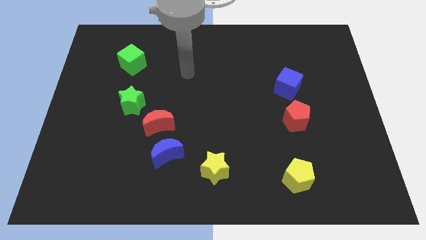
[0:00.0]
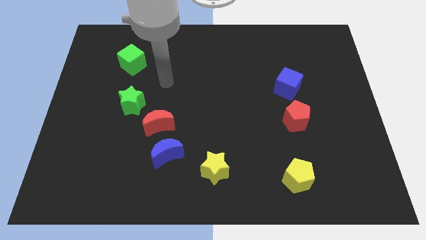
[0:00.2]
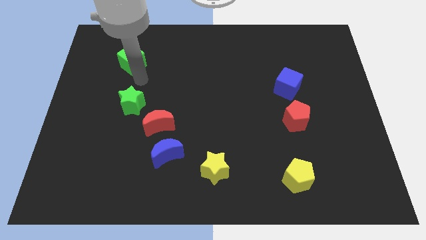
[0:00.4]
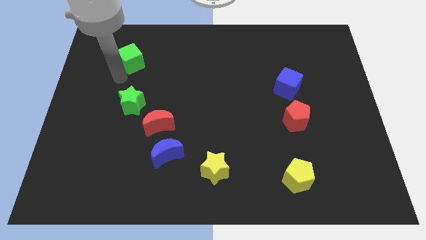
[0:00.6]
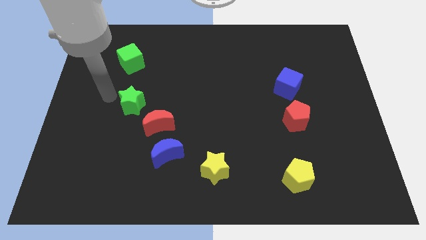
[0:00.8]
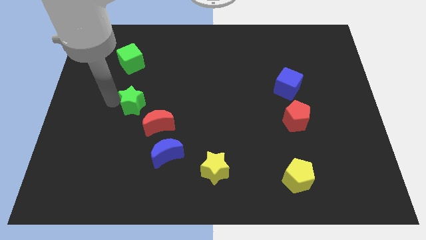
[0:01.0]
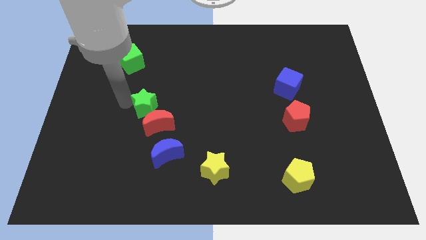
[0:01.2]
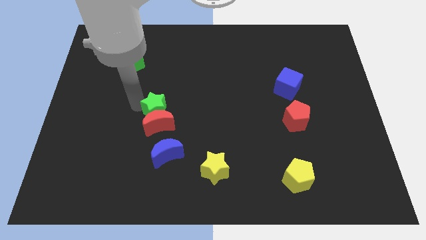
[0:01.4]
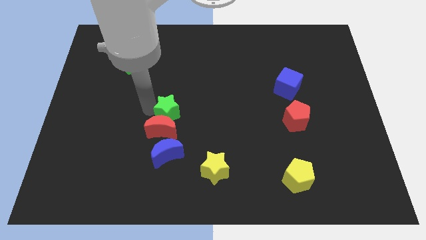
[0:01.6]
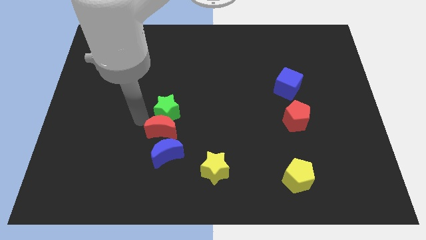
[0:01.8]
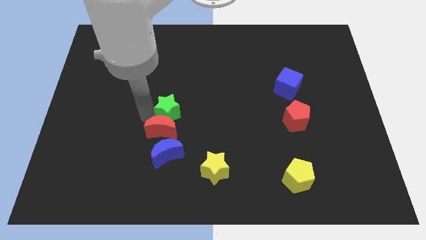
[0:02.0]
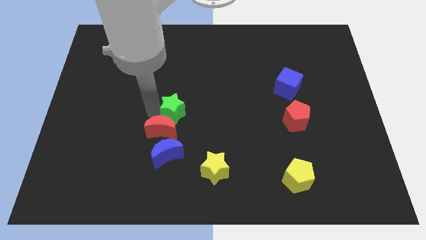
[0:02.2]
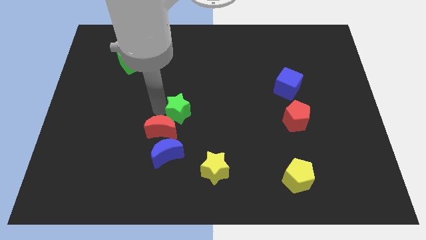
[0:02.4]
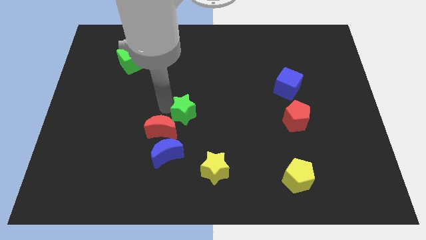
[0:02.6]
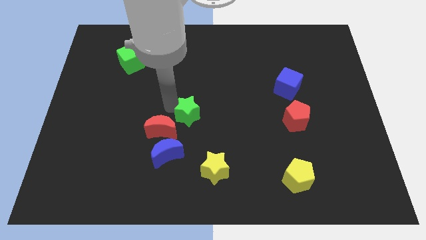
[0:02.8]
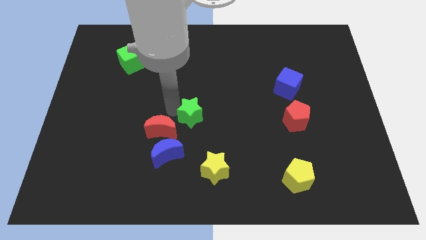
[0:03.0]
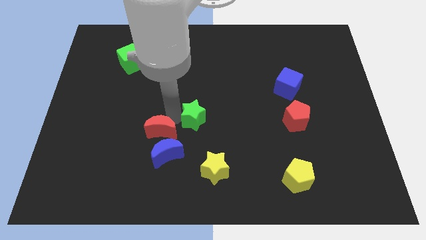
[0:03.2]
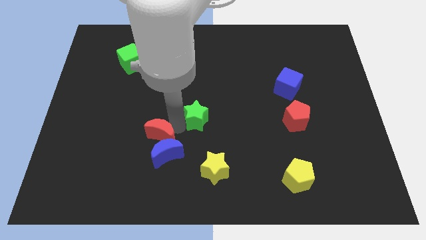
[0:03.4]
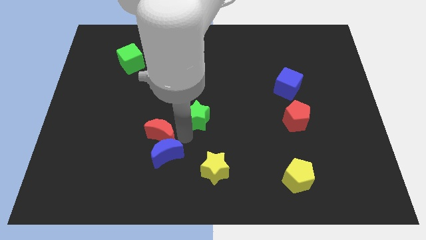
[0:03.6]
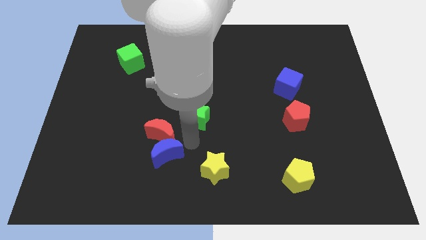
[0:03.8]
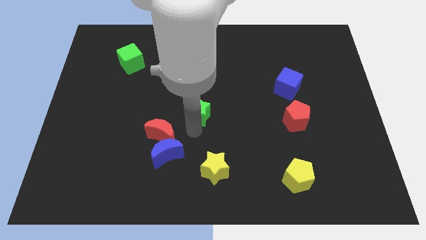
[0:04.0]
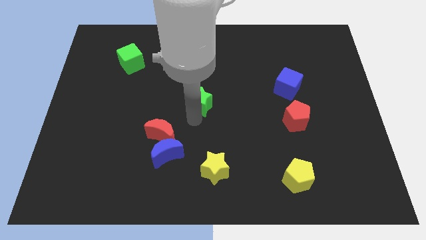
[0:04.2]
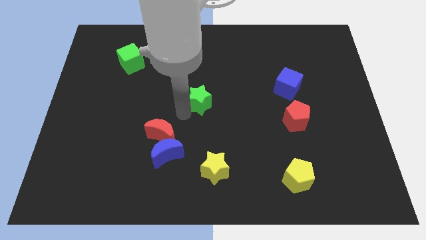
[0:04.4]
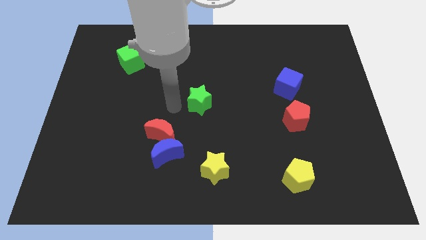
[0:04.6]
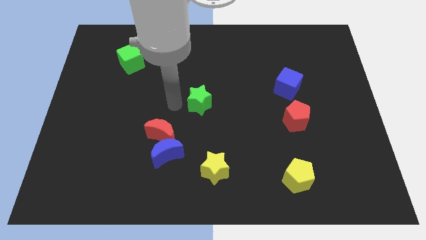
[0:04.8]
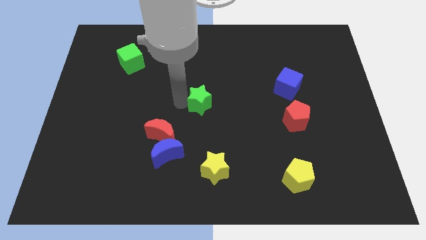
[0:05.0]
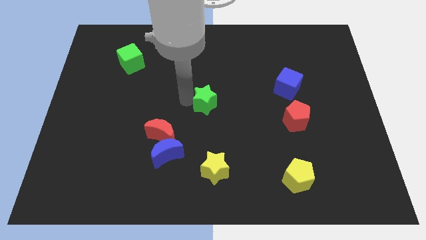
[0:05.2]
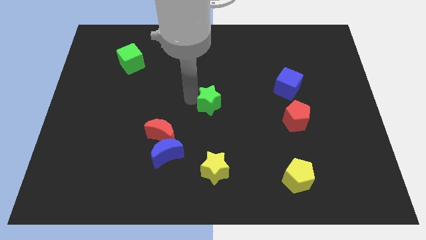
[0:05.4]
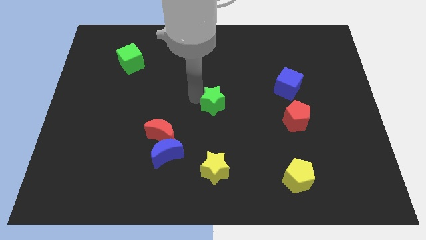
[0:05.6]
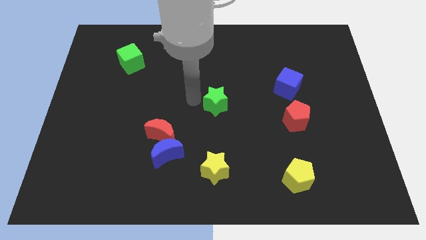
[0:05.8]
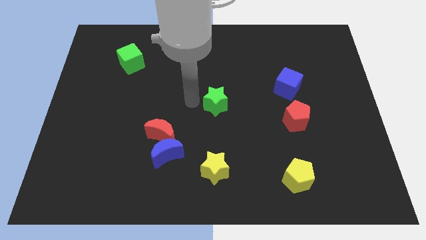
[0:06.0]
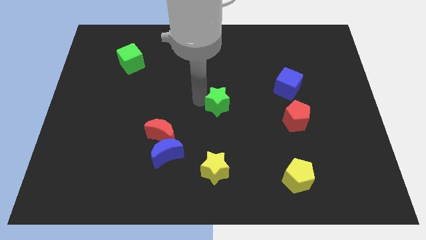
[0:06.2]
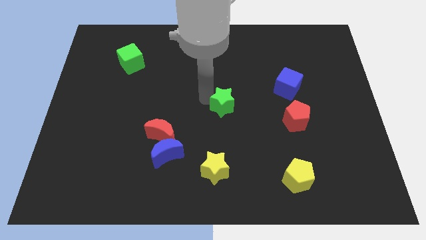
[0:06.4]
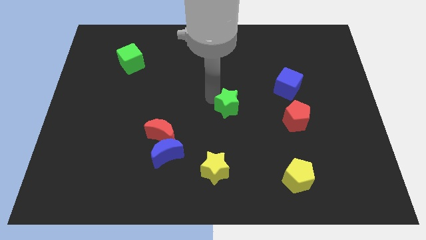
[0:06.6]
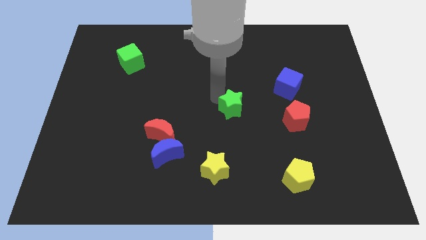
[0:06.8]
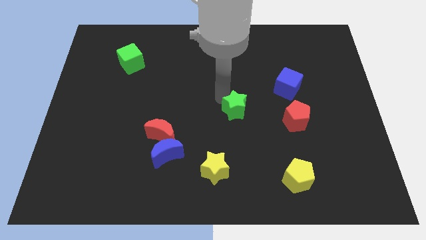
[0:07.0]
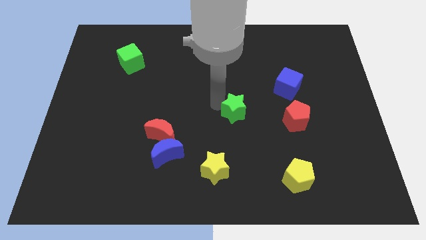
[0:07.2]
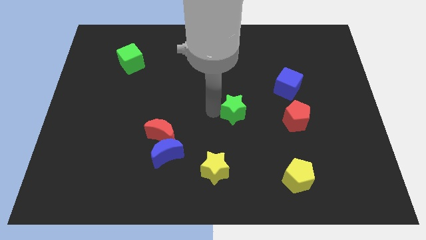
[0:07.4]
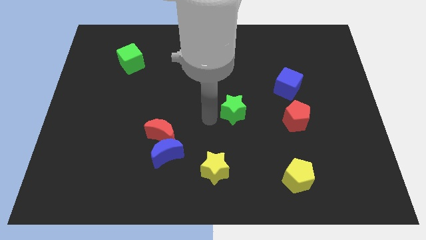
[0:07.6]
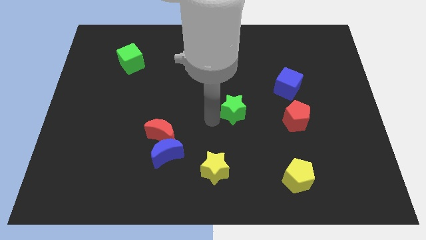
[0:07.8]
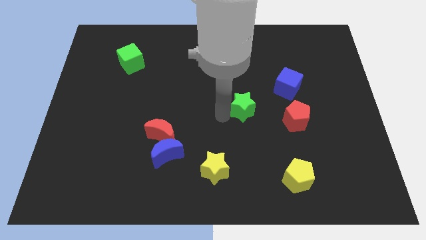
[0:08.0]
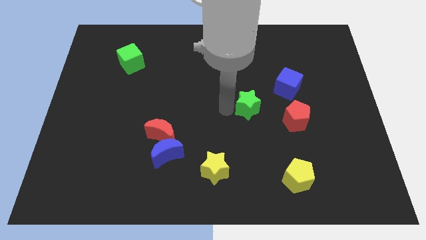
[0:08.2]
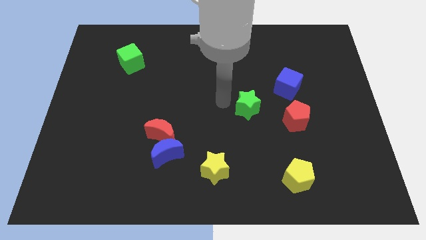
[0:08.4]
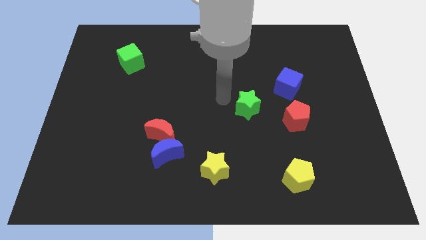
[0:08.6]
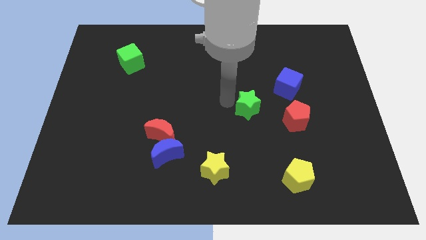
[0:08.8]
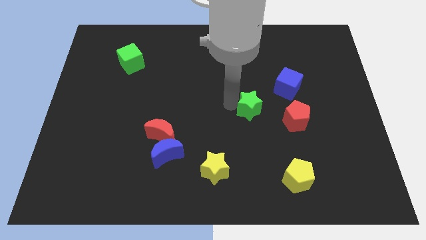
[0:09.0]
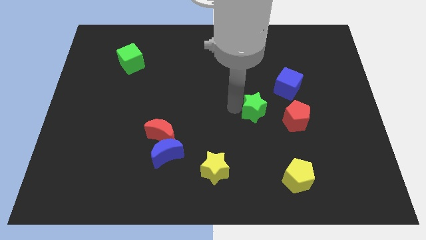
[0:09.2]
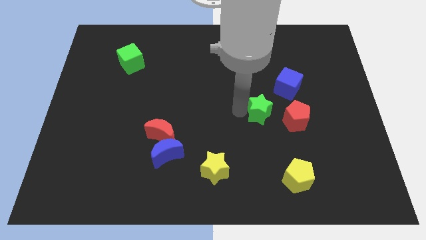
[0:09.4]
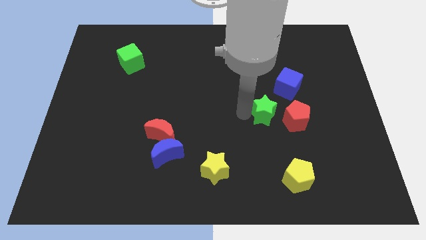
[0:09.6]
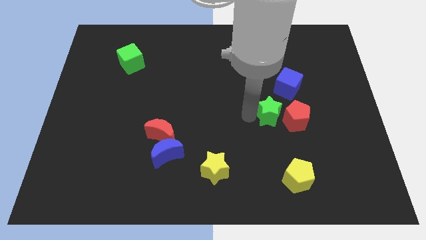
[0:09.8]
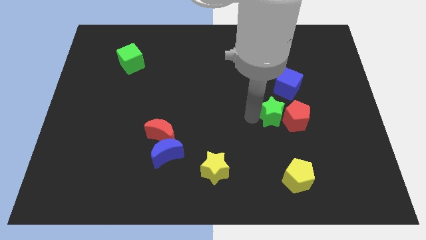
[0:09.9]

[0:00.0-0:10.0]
move the green star towards the red pentagon

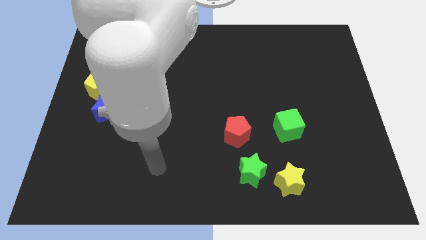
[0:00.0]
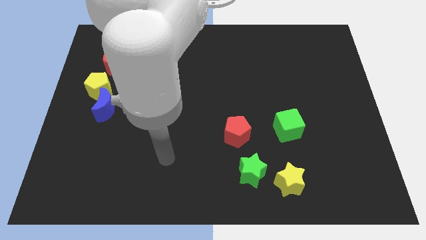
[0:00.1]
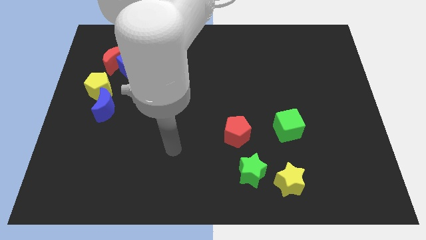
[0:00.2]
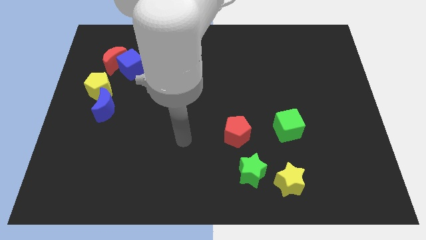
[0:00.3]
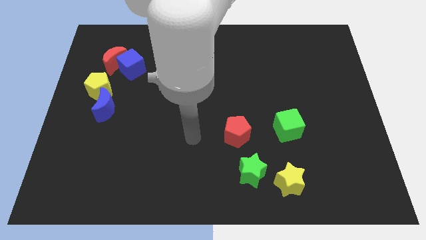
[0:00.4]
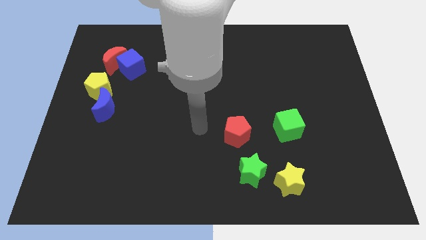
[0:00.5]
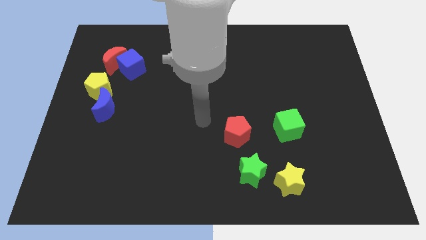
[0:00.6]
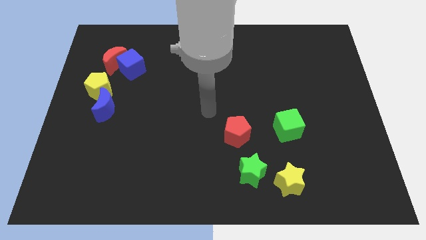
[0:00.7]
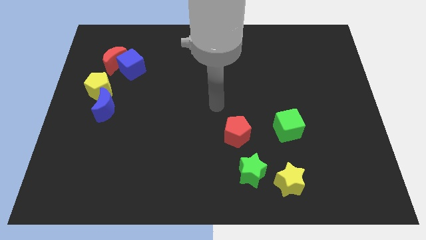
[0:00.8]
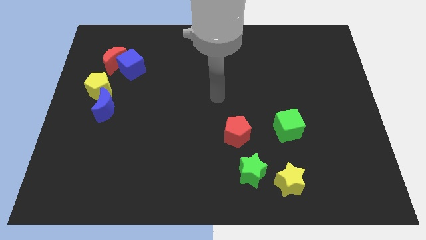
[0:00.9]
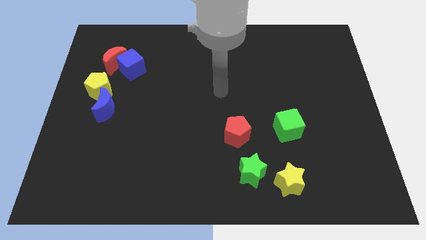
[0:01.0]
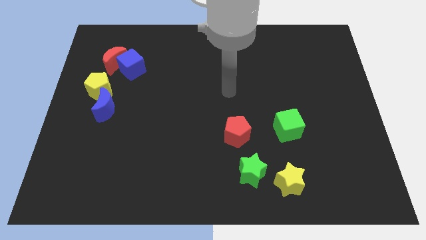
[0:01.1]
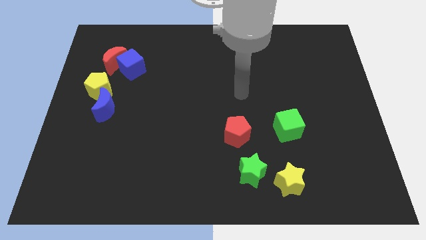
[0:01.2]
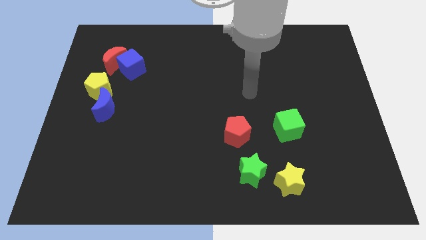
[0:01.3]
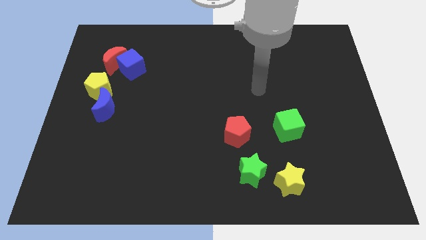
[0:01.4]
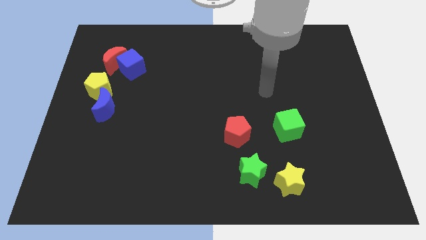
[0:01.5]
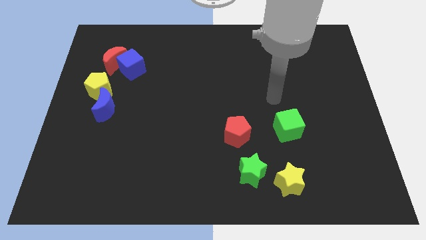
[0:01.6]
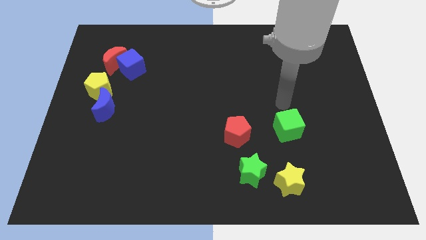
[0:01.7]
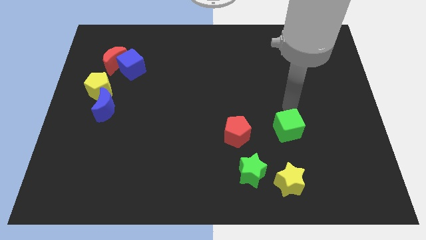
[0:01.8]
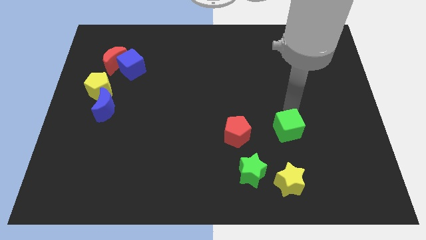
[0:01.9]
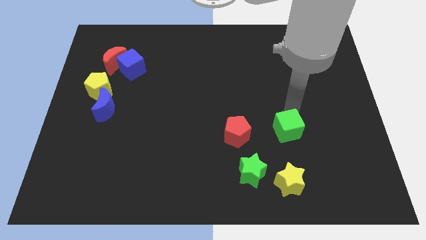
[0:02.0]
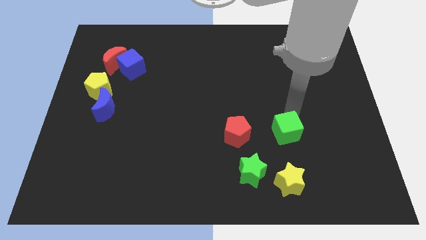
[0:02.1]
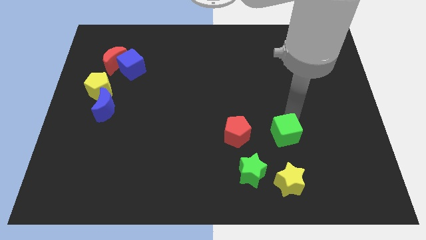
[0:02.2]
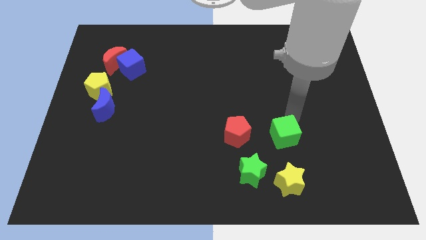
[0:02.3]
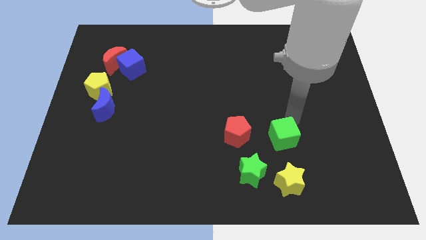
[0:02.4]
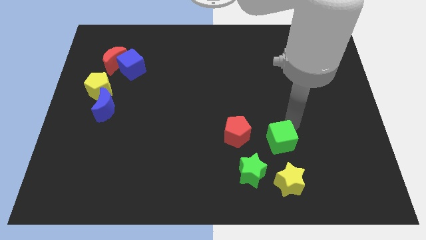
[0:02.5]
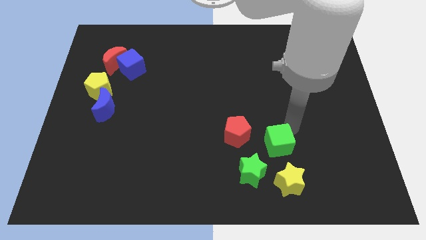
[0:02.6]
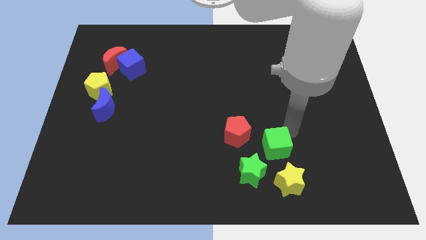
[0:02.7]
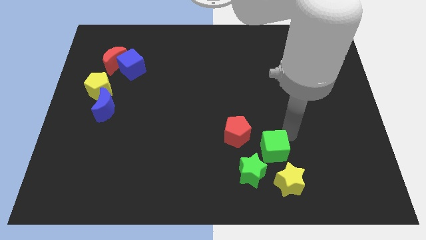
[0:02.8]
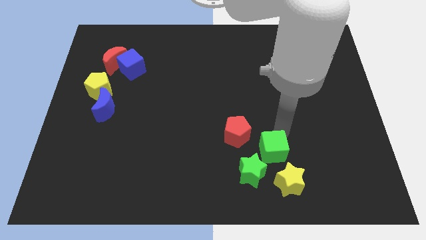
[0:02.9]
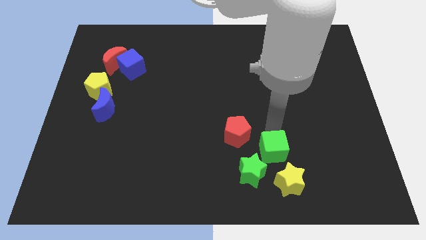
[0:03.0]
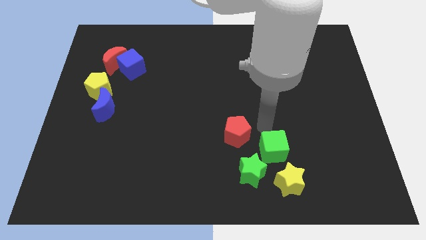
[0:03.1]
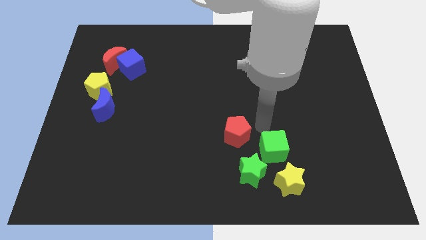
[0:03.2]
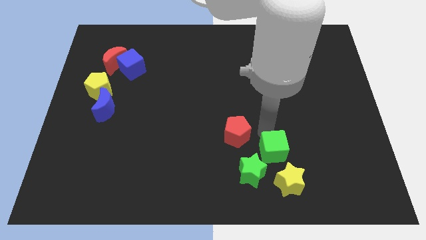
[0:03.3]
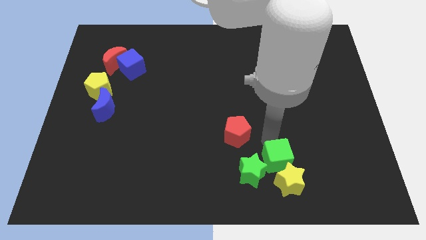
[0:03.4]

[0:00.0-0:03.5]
slide the green cube towards the yellow star
